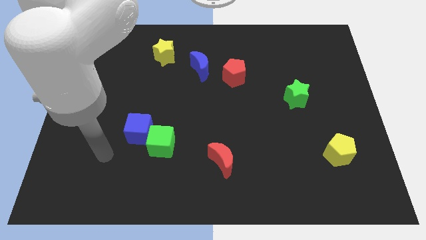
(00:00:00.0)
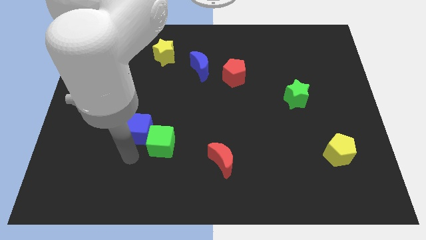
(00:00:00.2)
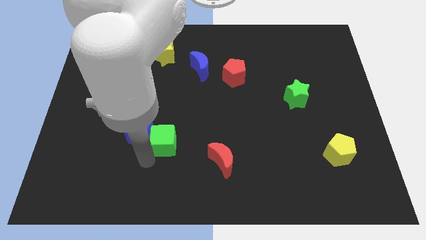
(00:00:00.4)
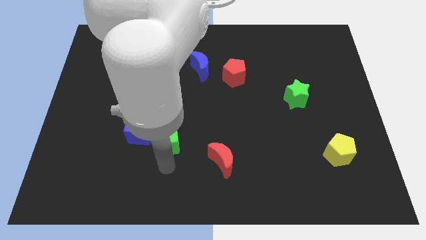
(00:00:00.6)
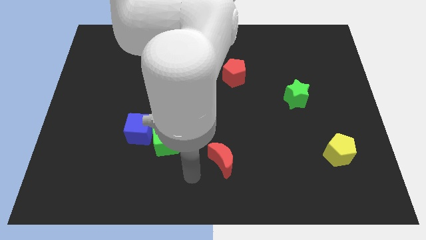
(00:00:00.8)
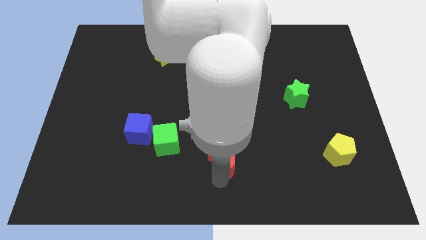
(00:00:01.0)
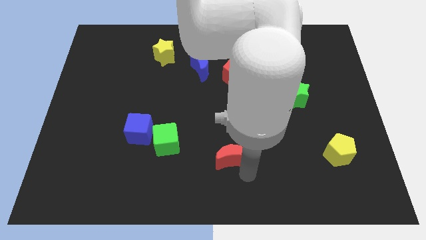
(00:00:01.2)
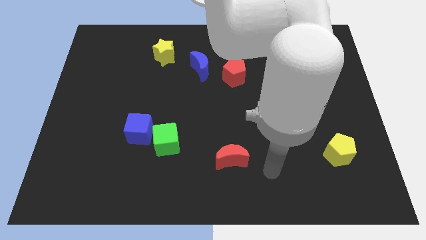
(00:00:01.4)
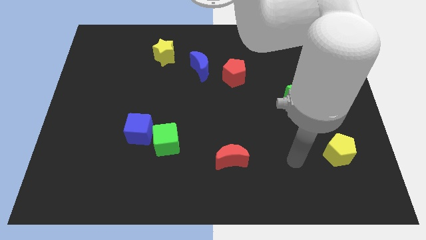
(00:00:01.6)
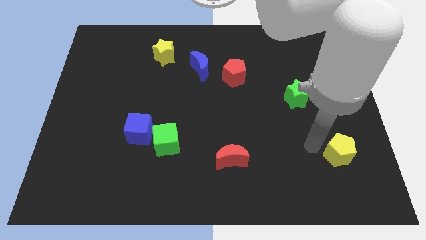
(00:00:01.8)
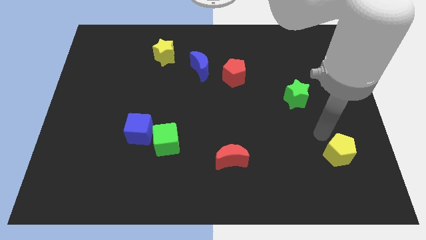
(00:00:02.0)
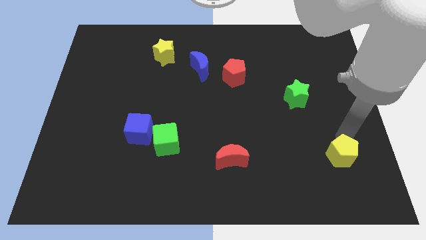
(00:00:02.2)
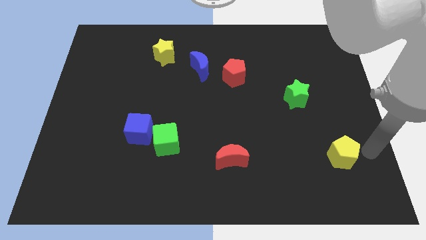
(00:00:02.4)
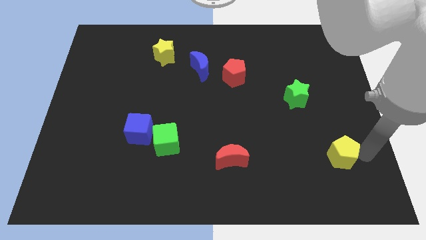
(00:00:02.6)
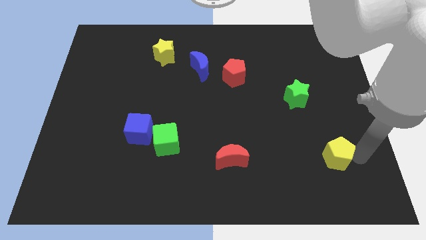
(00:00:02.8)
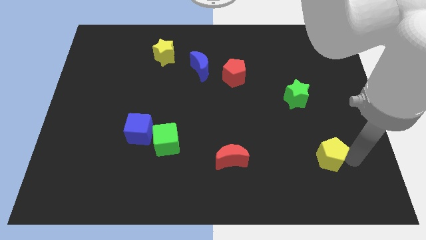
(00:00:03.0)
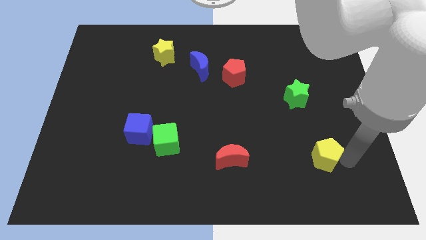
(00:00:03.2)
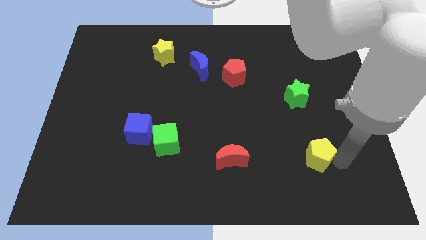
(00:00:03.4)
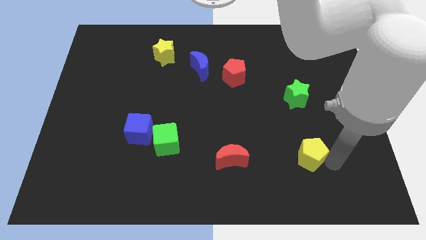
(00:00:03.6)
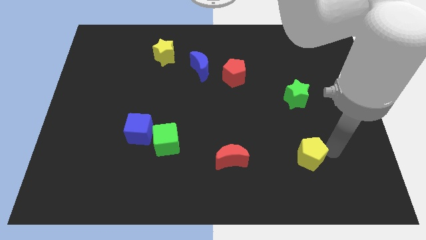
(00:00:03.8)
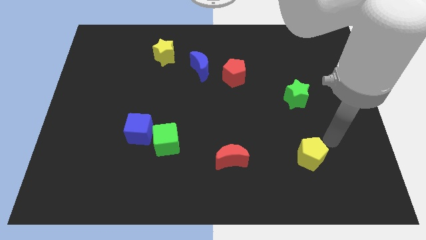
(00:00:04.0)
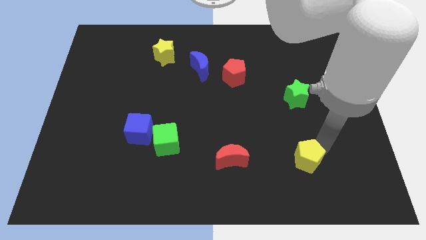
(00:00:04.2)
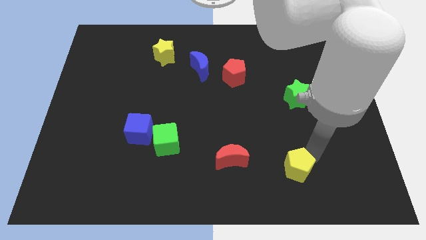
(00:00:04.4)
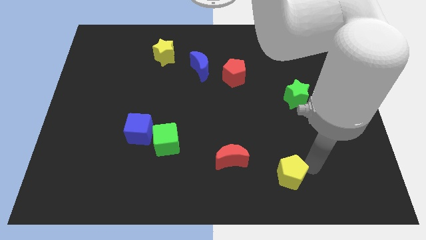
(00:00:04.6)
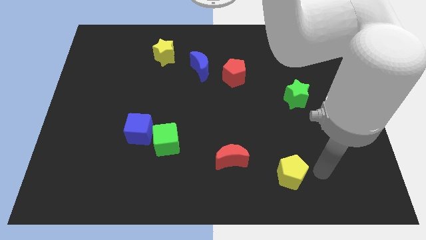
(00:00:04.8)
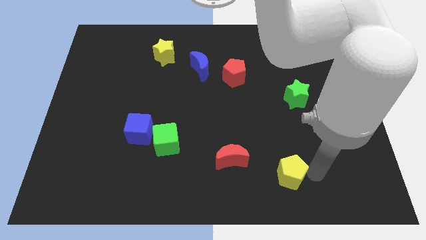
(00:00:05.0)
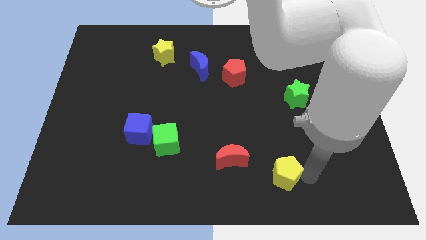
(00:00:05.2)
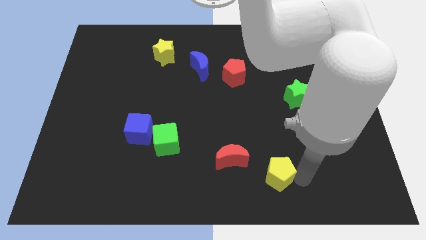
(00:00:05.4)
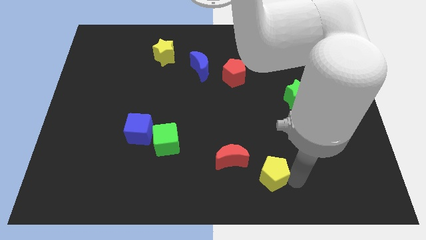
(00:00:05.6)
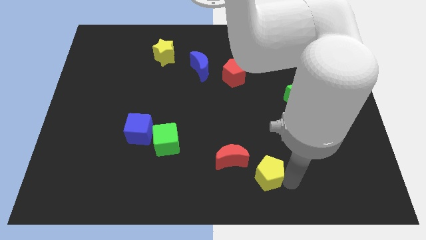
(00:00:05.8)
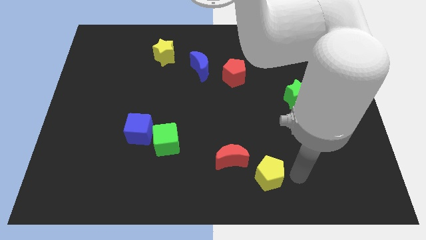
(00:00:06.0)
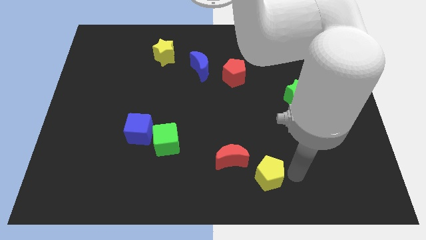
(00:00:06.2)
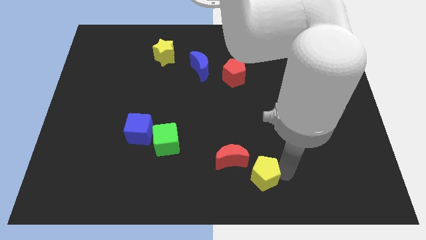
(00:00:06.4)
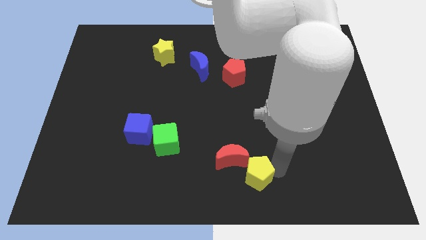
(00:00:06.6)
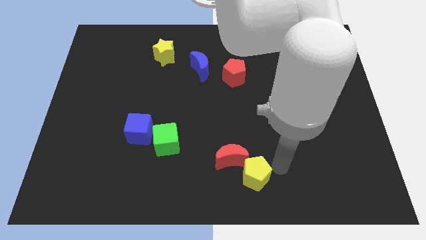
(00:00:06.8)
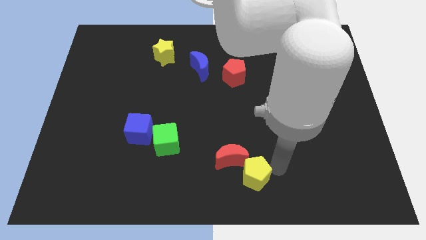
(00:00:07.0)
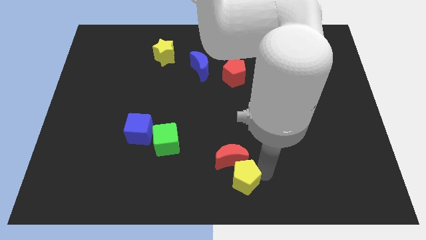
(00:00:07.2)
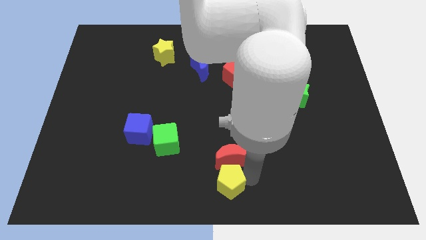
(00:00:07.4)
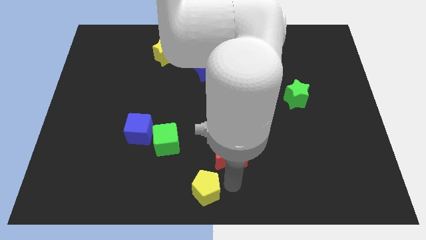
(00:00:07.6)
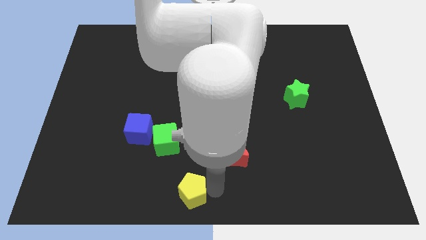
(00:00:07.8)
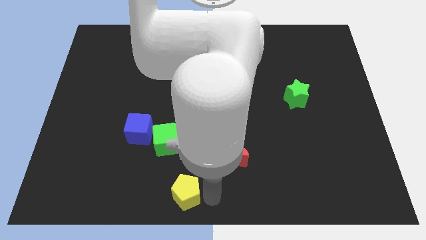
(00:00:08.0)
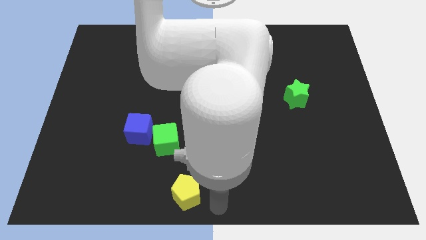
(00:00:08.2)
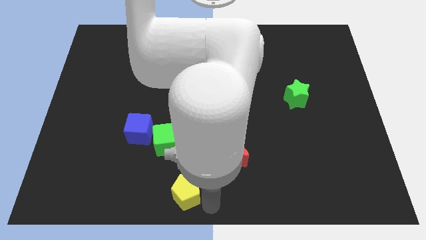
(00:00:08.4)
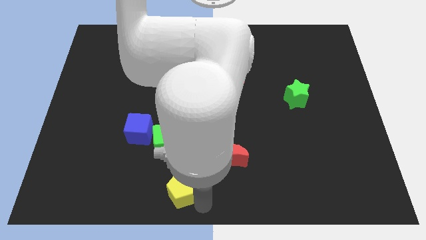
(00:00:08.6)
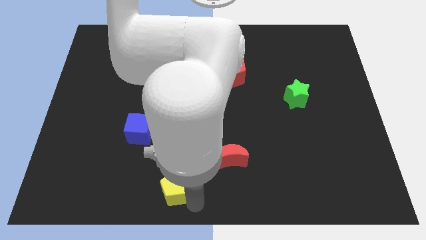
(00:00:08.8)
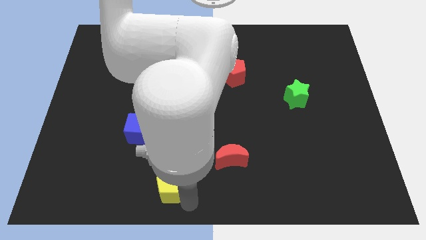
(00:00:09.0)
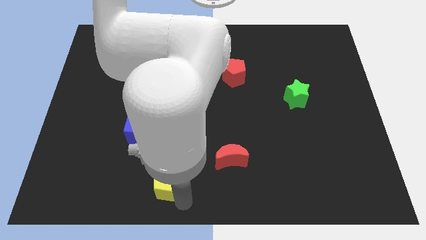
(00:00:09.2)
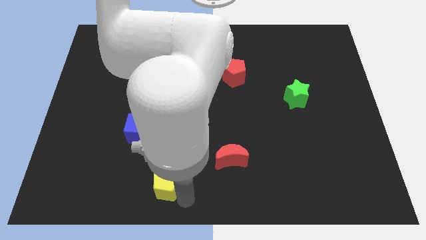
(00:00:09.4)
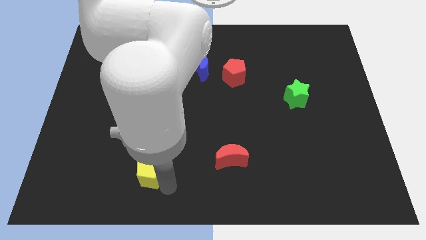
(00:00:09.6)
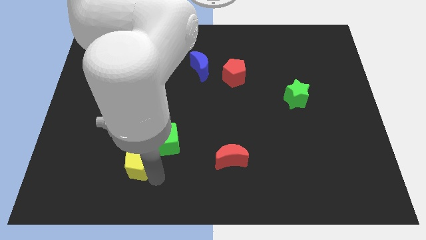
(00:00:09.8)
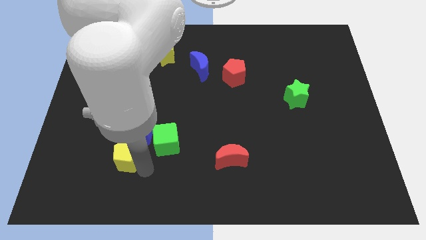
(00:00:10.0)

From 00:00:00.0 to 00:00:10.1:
push the yellow pentagon to the bottom left of the blue cube

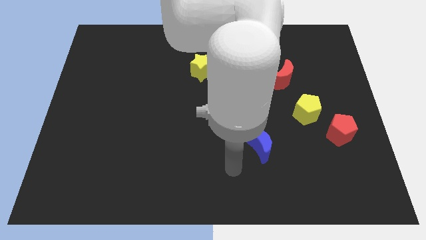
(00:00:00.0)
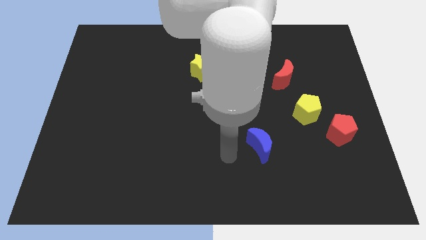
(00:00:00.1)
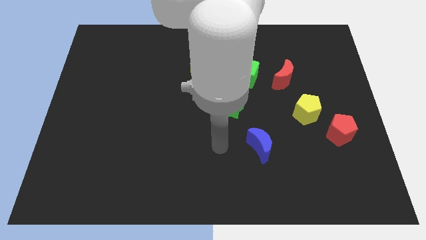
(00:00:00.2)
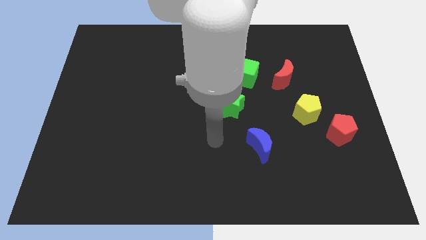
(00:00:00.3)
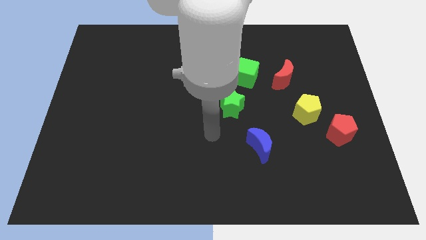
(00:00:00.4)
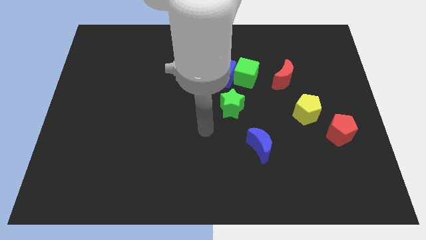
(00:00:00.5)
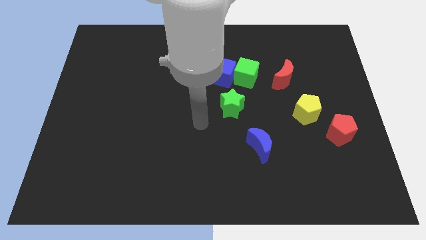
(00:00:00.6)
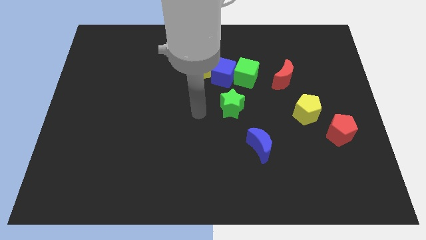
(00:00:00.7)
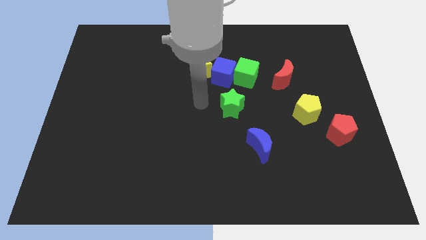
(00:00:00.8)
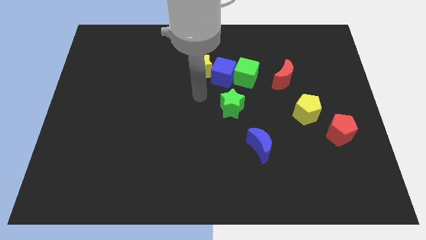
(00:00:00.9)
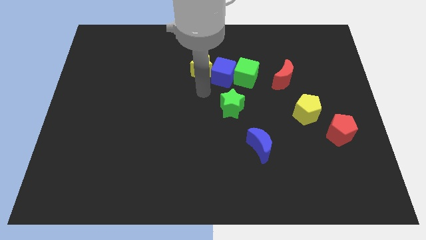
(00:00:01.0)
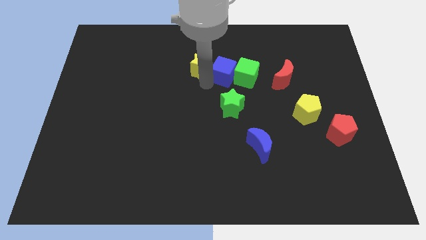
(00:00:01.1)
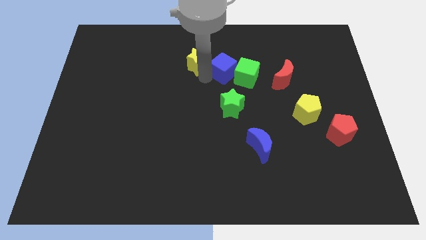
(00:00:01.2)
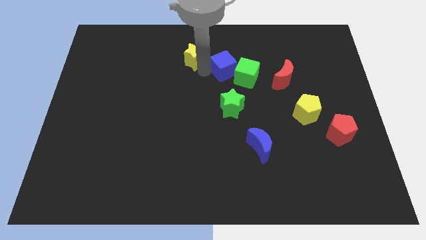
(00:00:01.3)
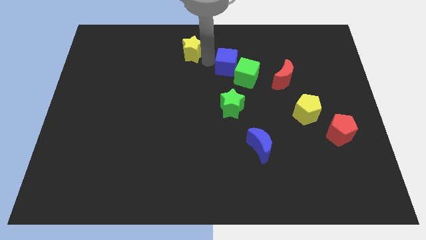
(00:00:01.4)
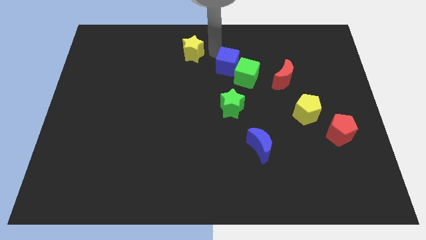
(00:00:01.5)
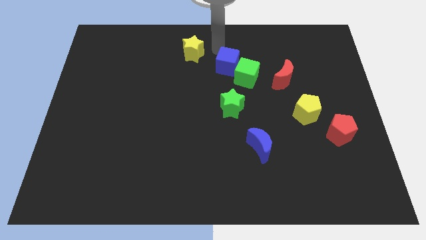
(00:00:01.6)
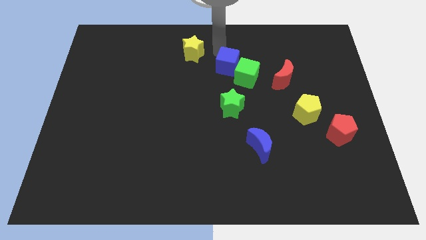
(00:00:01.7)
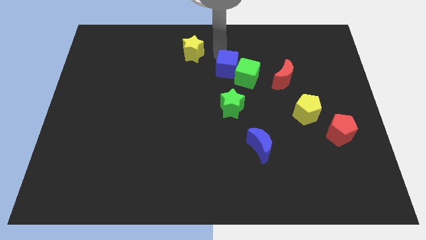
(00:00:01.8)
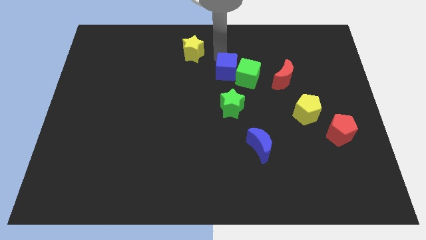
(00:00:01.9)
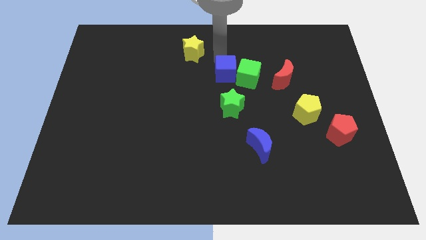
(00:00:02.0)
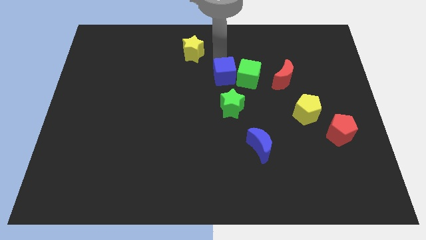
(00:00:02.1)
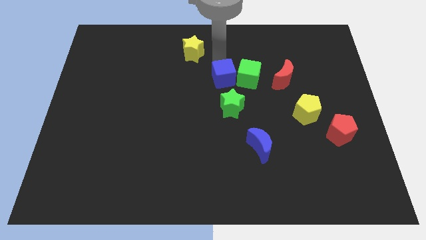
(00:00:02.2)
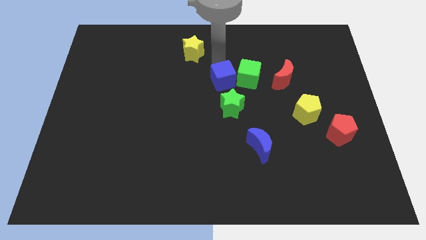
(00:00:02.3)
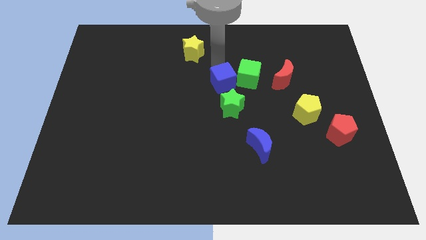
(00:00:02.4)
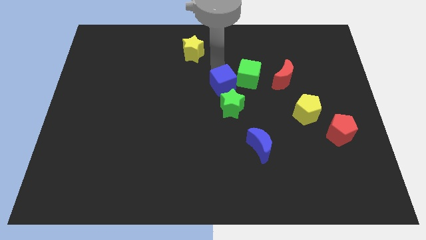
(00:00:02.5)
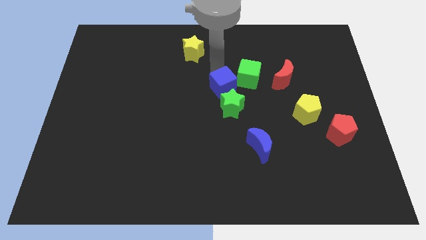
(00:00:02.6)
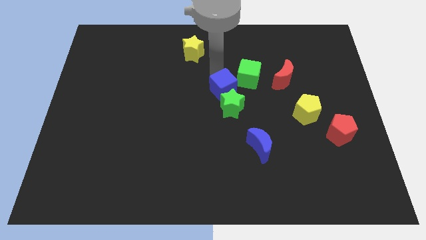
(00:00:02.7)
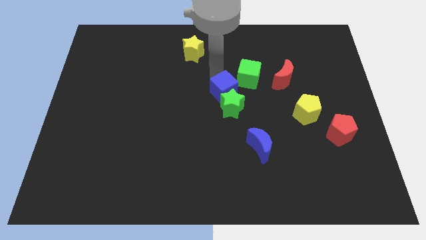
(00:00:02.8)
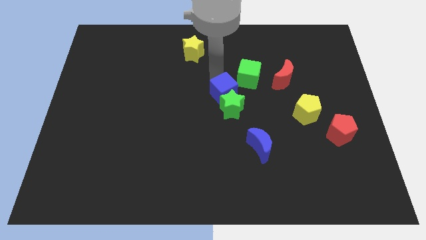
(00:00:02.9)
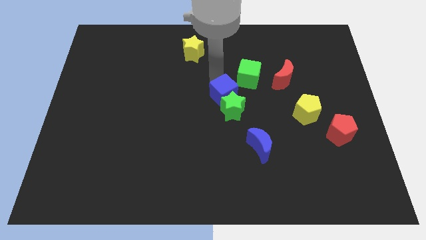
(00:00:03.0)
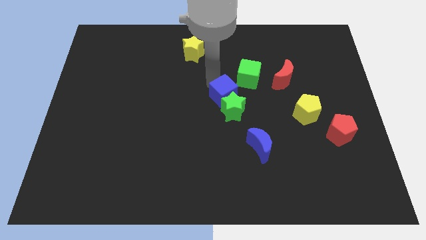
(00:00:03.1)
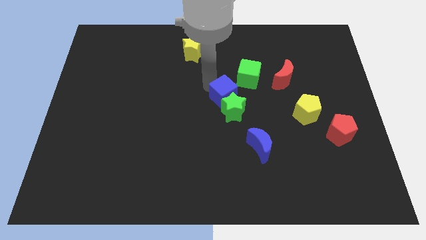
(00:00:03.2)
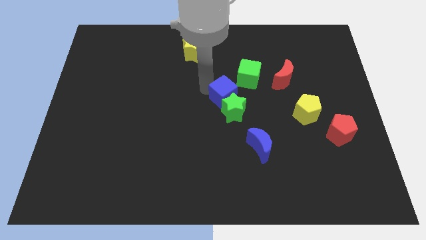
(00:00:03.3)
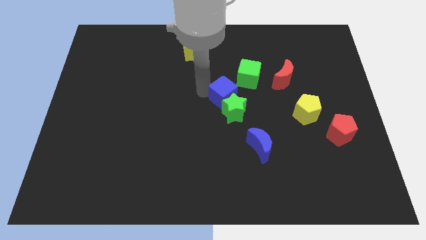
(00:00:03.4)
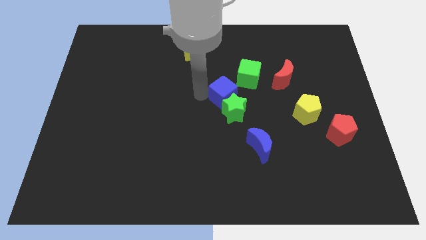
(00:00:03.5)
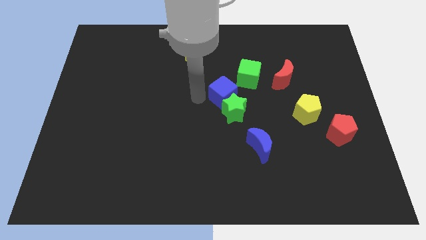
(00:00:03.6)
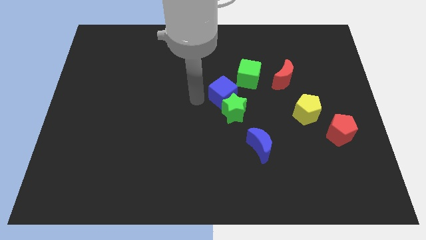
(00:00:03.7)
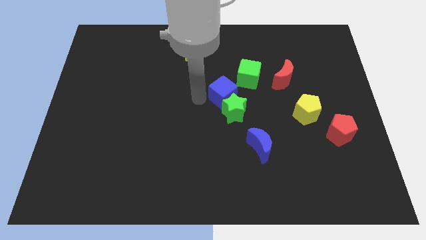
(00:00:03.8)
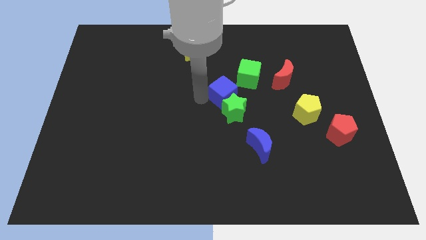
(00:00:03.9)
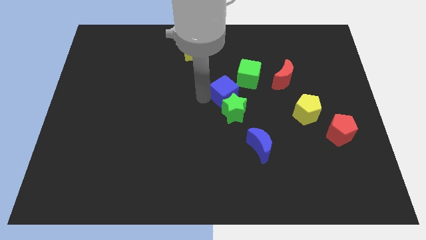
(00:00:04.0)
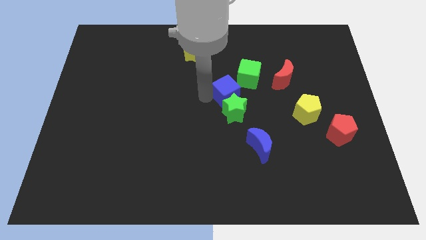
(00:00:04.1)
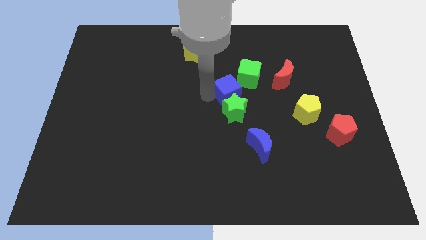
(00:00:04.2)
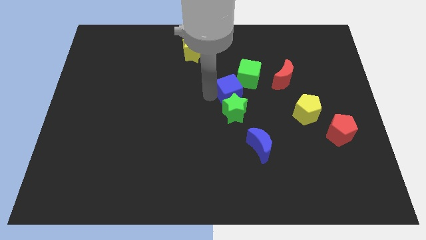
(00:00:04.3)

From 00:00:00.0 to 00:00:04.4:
put the blue cube below the green cube
